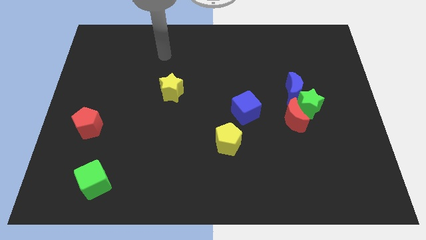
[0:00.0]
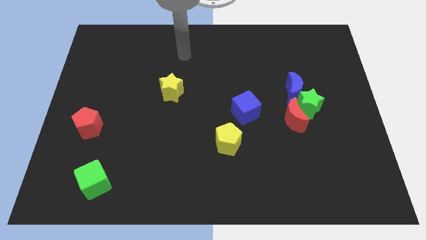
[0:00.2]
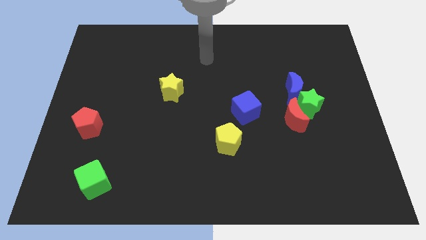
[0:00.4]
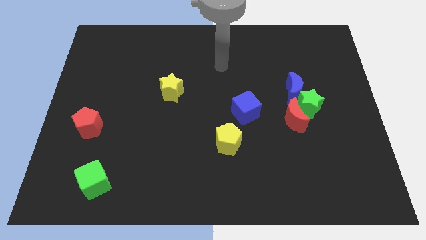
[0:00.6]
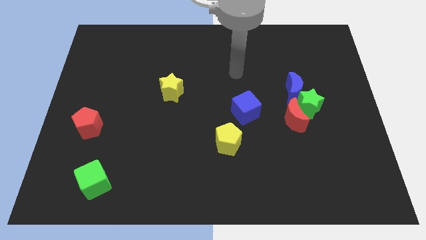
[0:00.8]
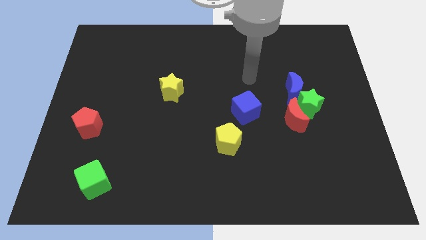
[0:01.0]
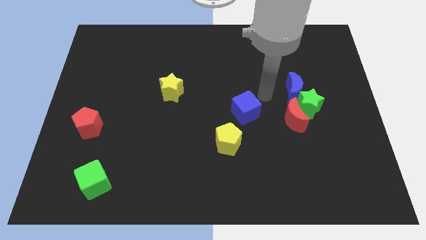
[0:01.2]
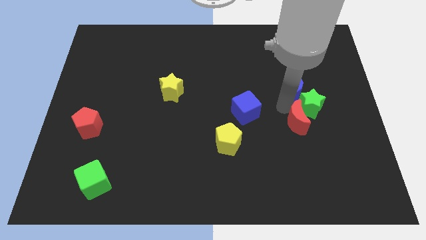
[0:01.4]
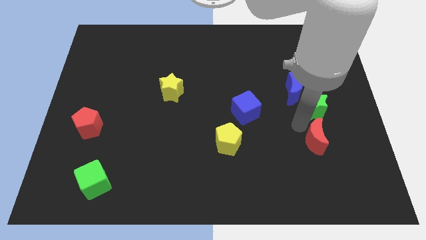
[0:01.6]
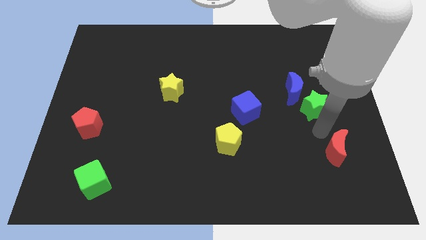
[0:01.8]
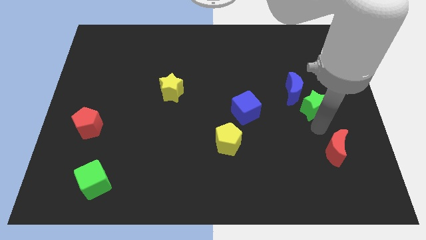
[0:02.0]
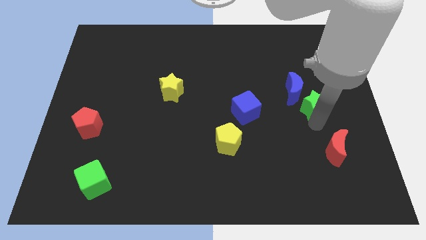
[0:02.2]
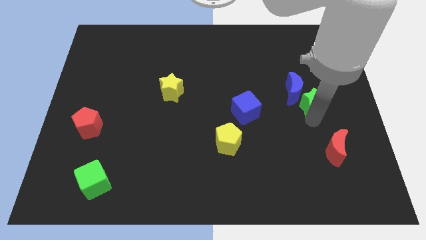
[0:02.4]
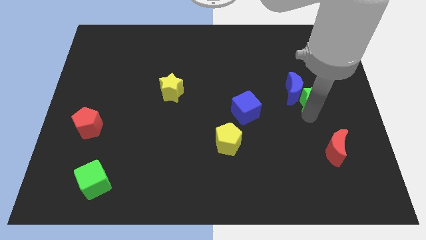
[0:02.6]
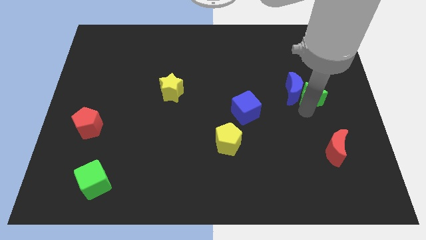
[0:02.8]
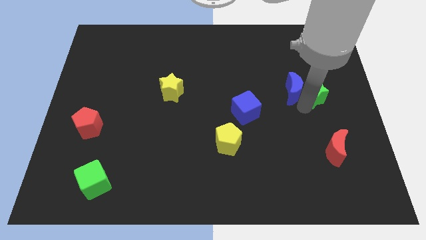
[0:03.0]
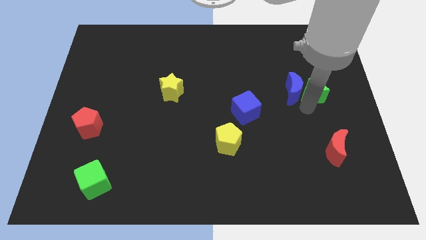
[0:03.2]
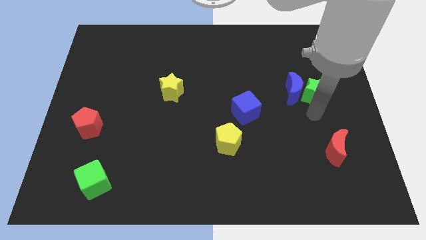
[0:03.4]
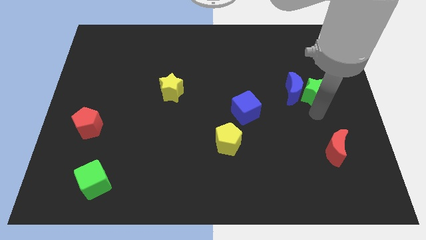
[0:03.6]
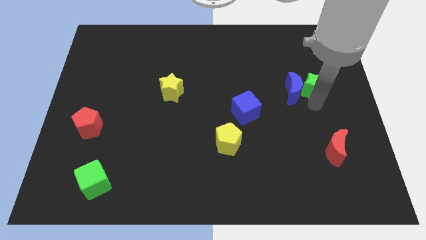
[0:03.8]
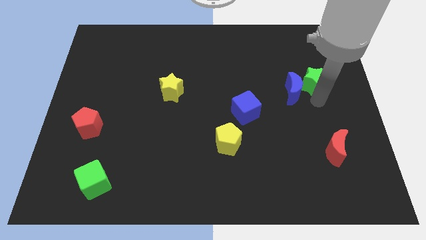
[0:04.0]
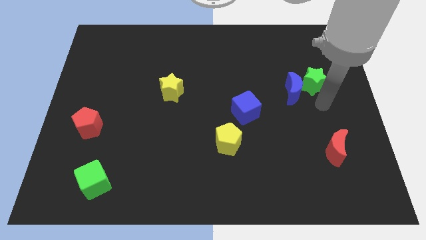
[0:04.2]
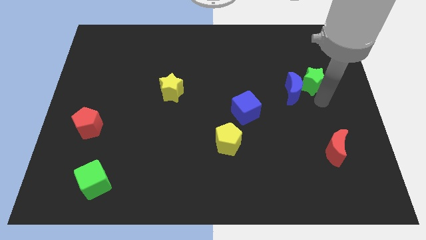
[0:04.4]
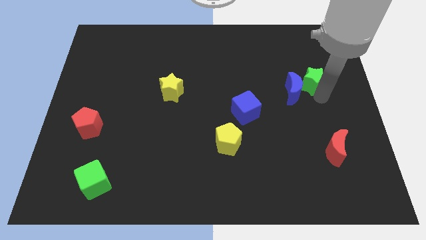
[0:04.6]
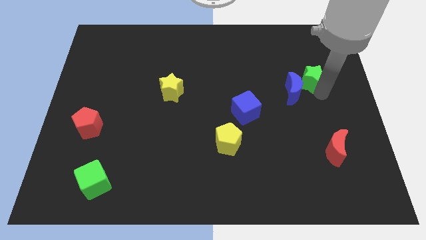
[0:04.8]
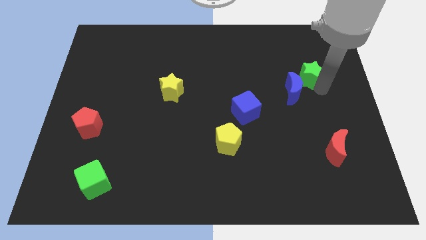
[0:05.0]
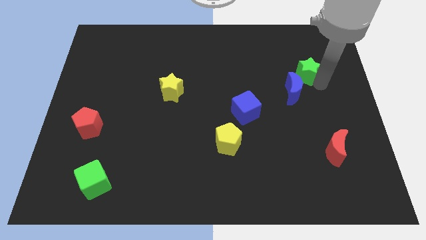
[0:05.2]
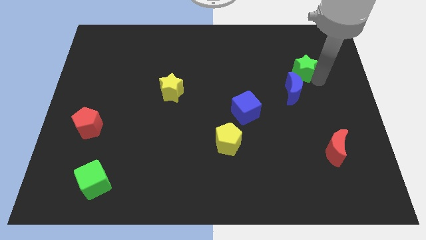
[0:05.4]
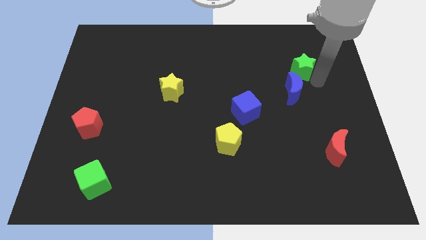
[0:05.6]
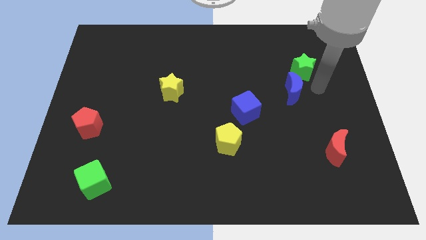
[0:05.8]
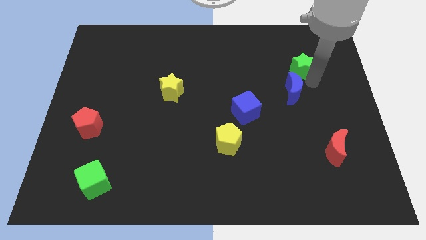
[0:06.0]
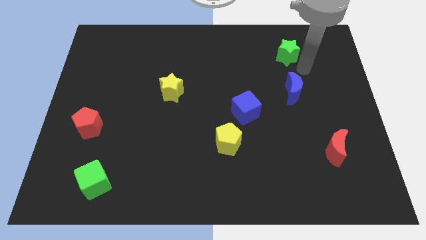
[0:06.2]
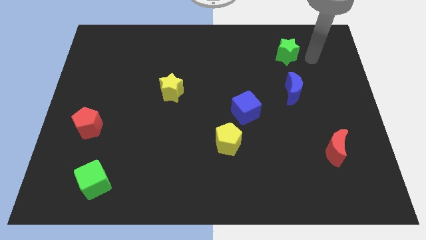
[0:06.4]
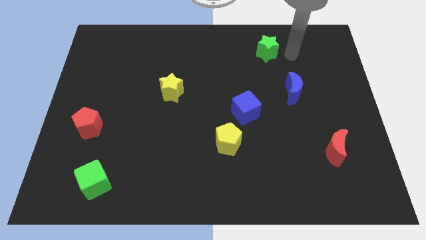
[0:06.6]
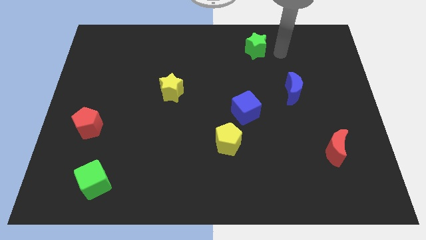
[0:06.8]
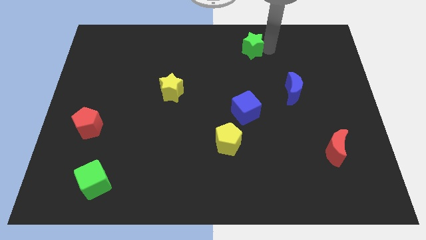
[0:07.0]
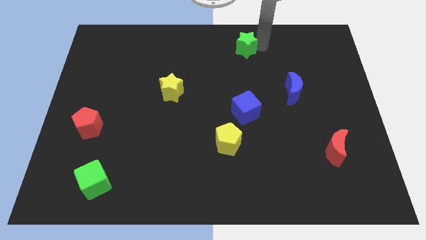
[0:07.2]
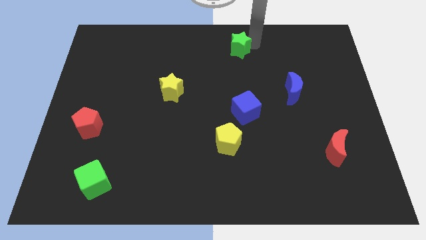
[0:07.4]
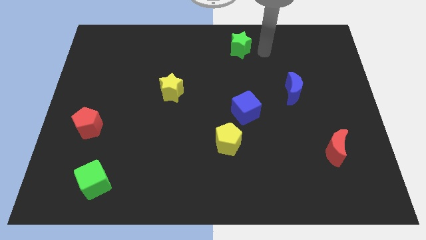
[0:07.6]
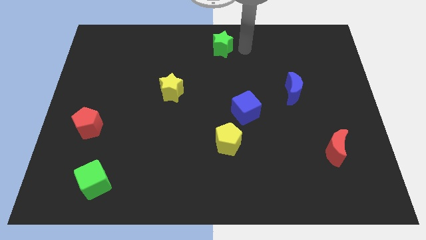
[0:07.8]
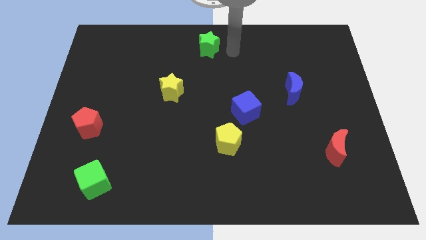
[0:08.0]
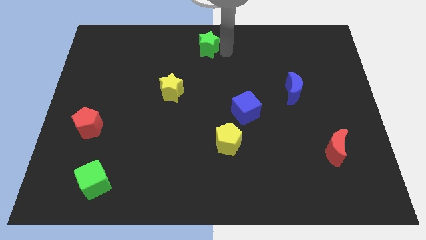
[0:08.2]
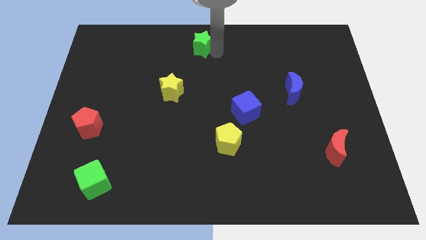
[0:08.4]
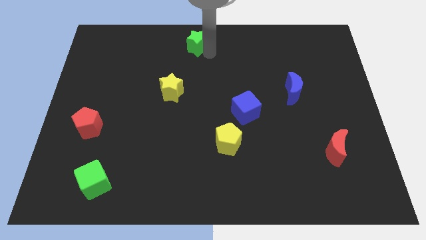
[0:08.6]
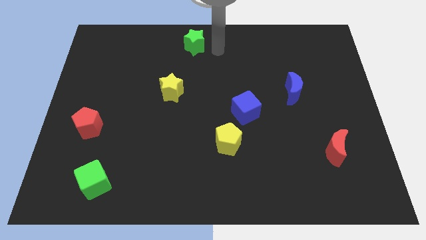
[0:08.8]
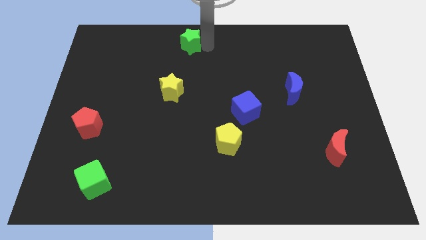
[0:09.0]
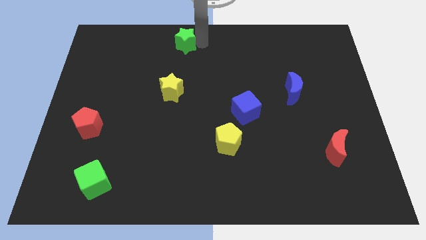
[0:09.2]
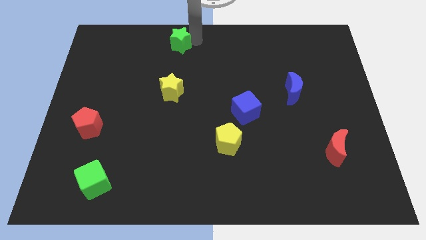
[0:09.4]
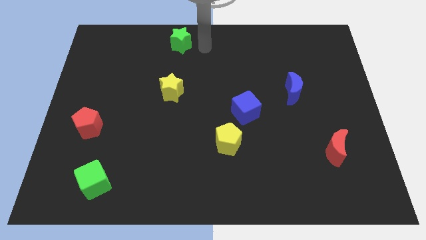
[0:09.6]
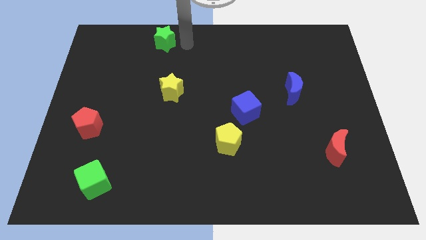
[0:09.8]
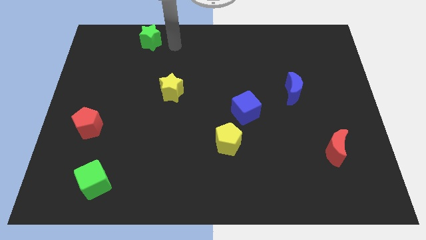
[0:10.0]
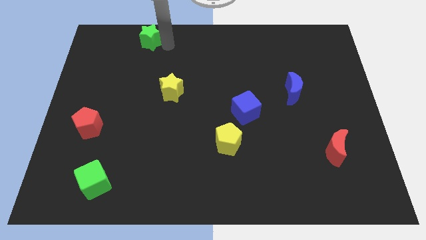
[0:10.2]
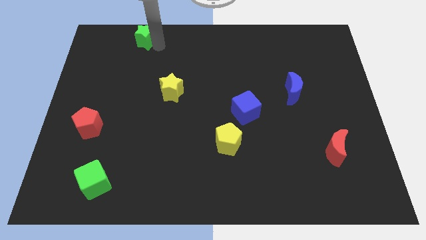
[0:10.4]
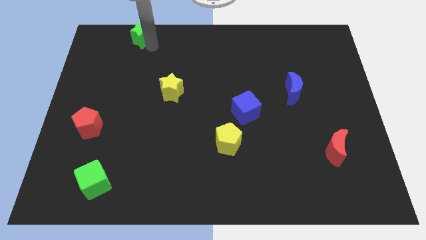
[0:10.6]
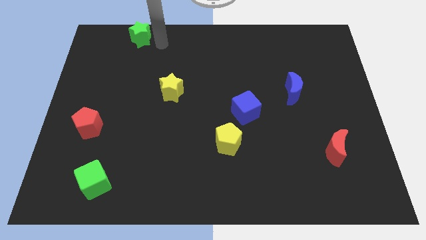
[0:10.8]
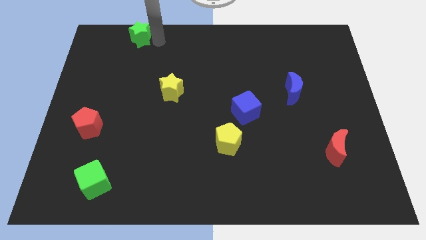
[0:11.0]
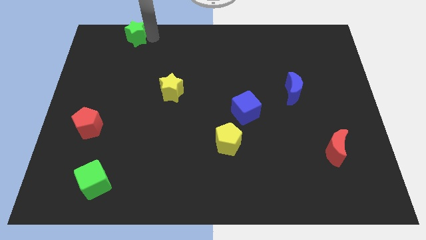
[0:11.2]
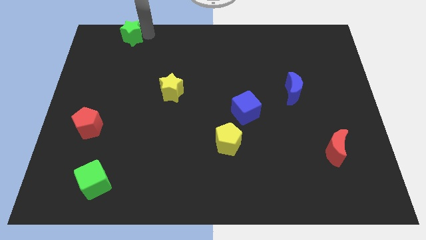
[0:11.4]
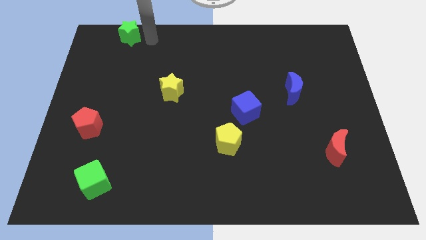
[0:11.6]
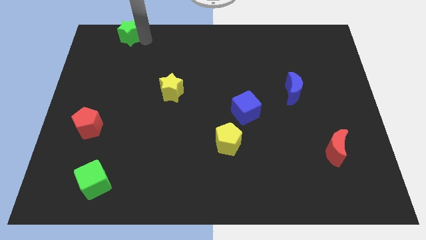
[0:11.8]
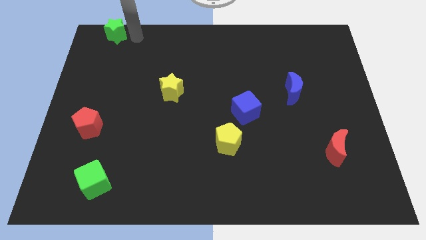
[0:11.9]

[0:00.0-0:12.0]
put the green star to the top left

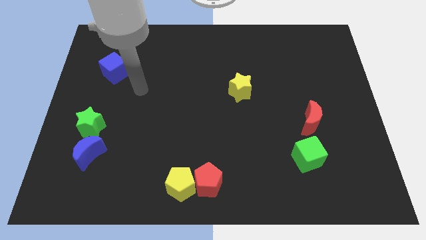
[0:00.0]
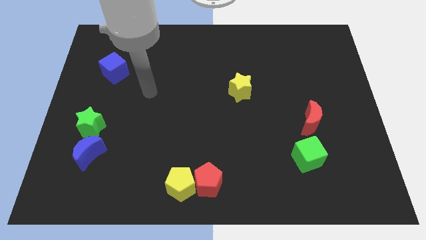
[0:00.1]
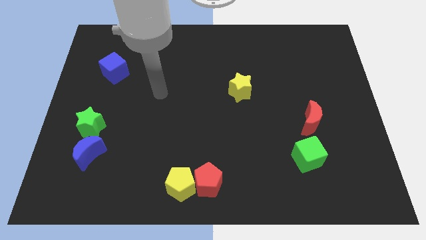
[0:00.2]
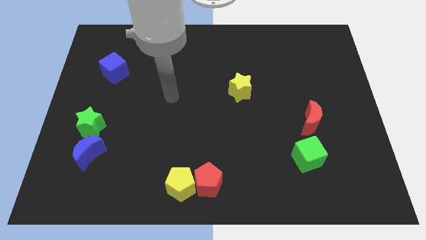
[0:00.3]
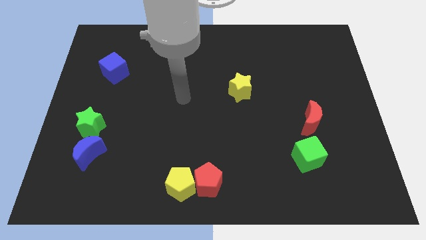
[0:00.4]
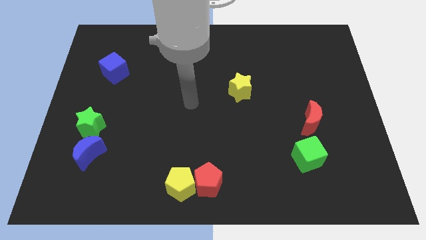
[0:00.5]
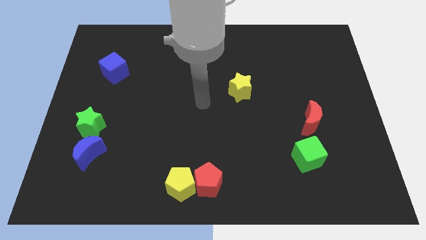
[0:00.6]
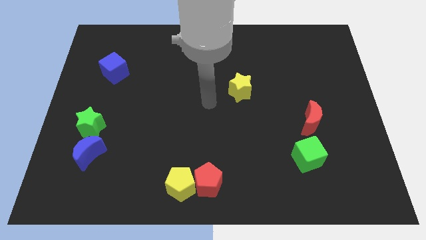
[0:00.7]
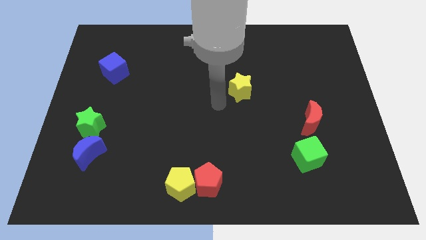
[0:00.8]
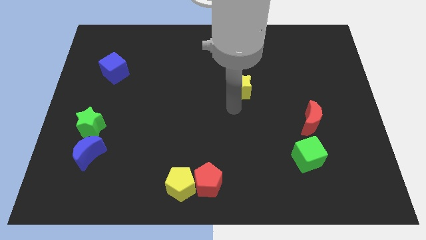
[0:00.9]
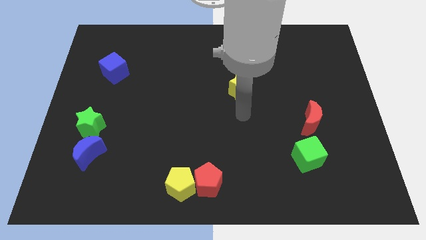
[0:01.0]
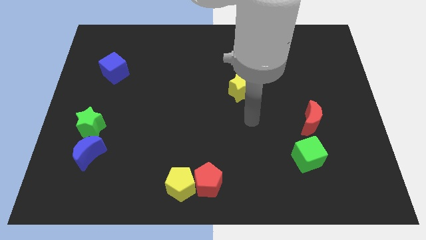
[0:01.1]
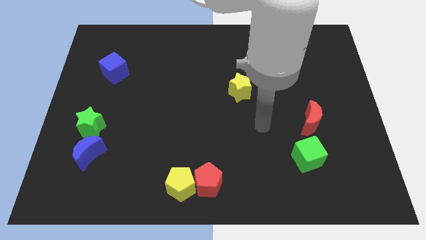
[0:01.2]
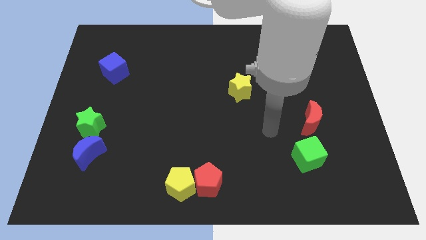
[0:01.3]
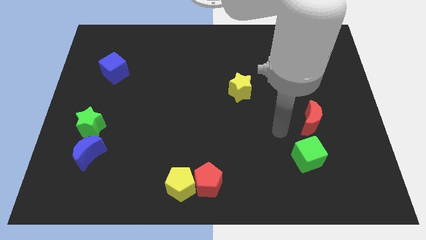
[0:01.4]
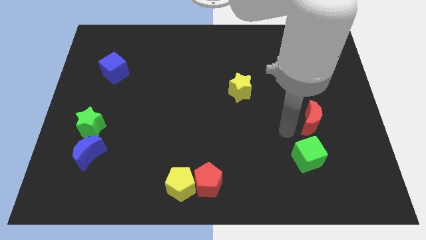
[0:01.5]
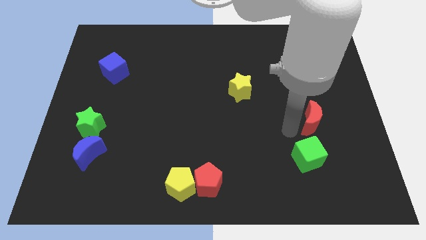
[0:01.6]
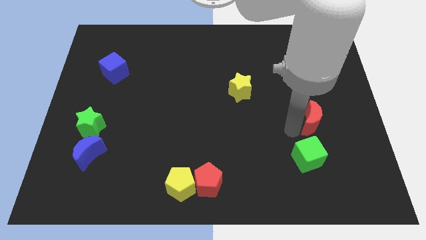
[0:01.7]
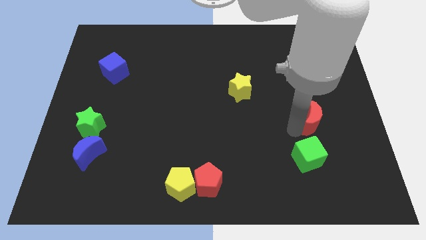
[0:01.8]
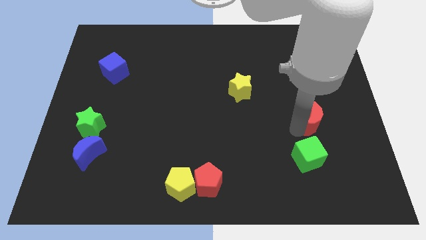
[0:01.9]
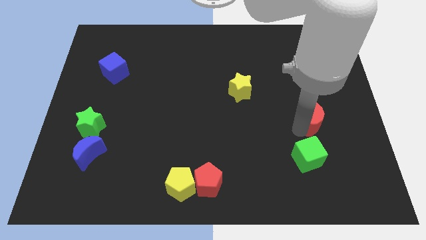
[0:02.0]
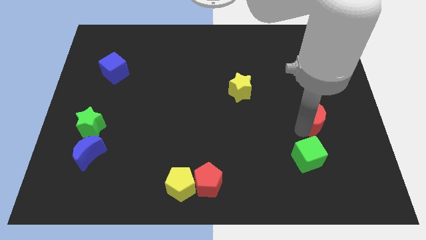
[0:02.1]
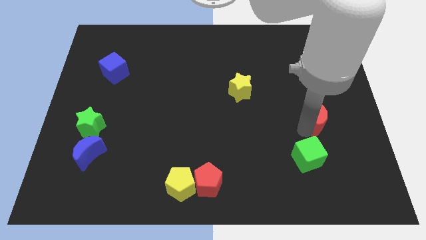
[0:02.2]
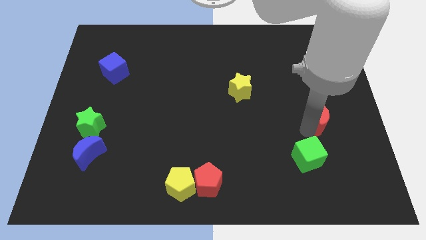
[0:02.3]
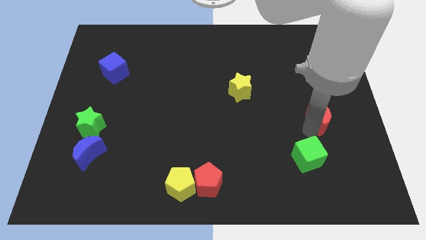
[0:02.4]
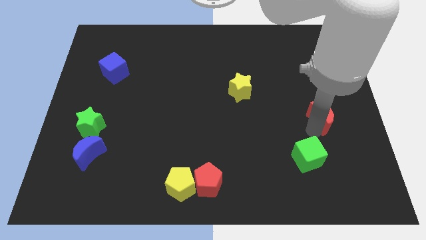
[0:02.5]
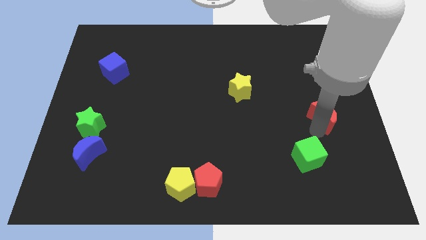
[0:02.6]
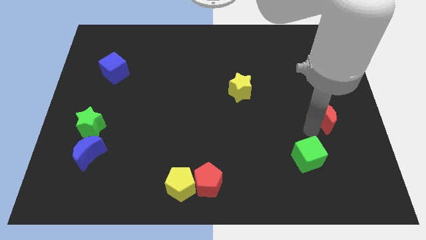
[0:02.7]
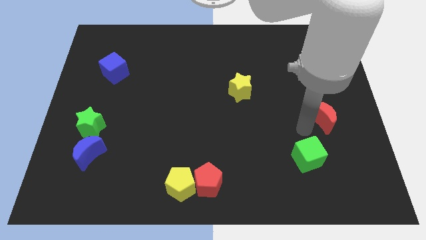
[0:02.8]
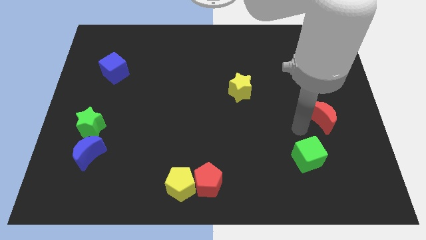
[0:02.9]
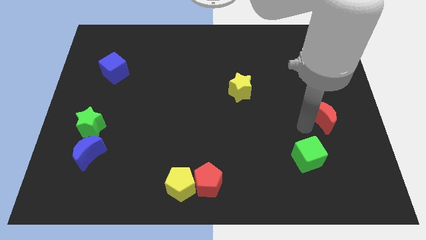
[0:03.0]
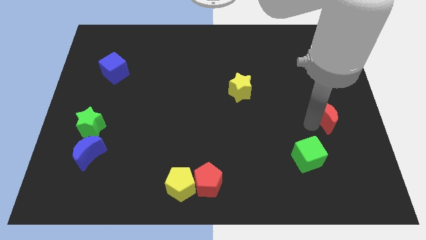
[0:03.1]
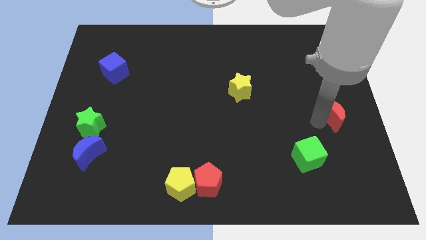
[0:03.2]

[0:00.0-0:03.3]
move the red moon to the right side of the board
